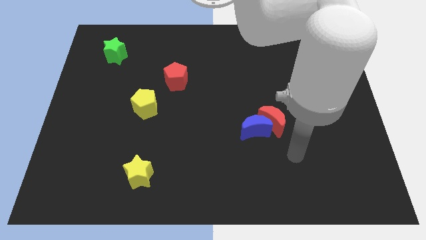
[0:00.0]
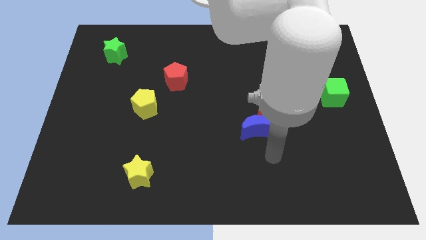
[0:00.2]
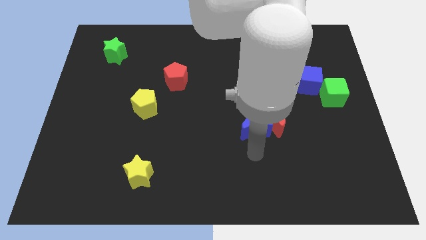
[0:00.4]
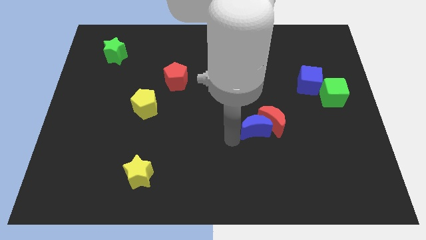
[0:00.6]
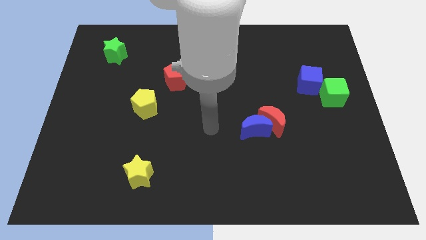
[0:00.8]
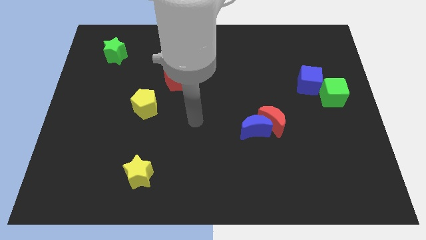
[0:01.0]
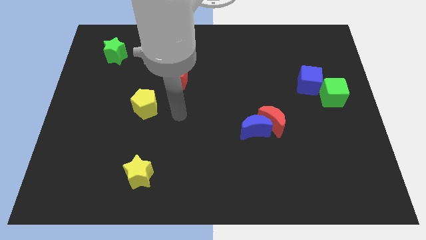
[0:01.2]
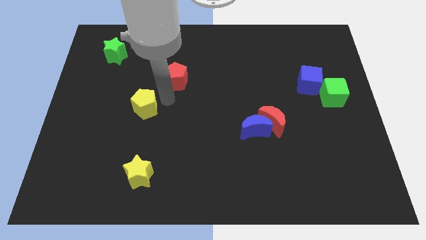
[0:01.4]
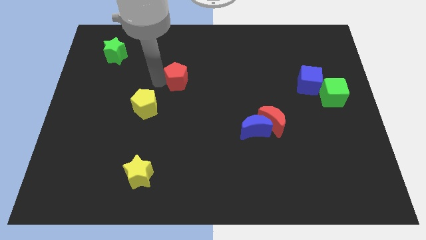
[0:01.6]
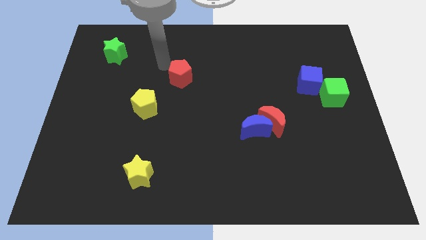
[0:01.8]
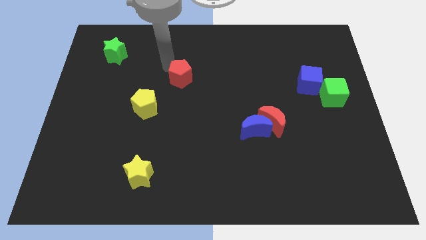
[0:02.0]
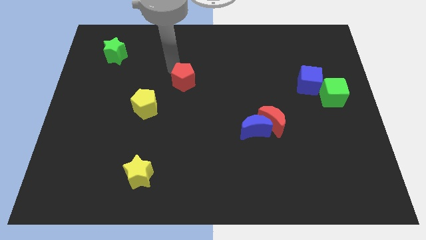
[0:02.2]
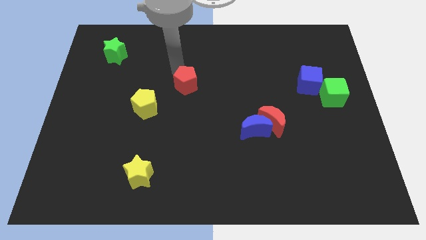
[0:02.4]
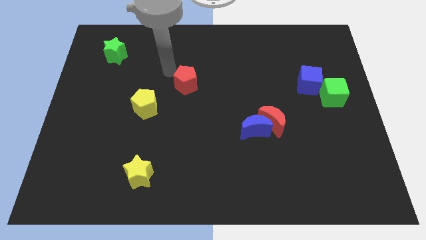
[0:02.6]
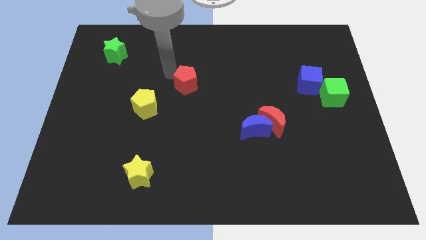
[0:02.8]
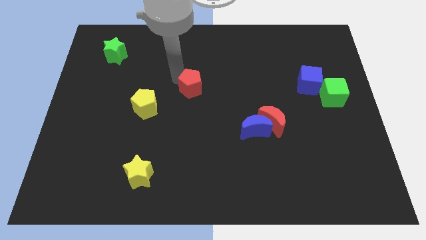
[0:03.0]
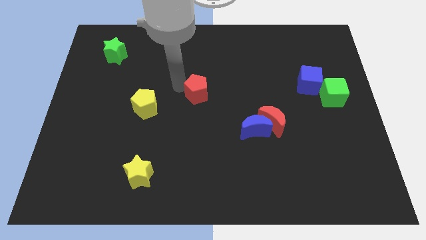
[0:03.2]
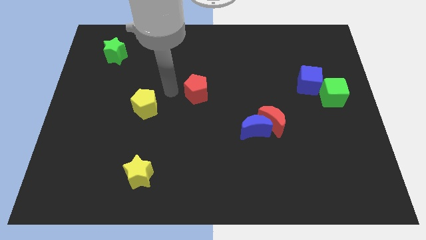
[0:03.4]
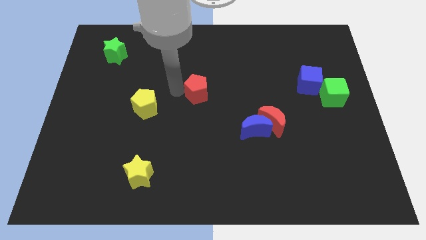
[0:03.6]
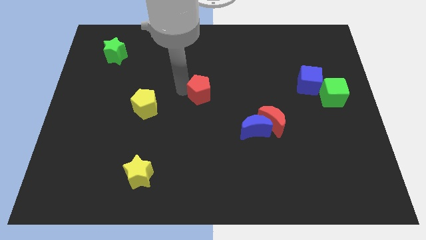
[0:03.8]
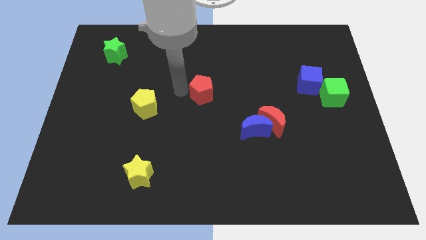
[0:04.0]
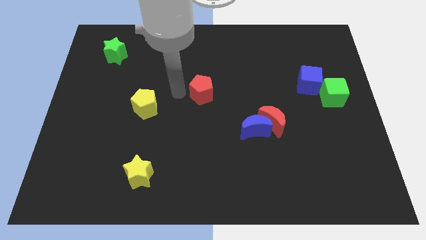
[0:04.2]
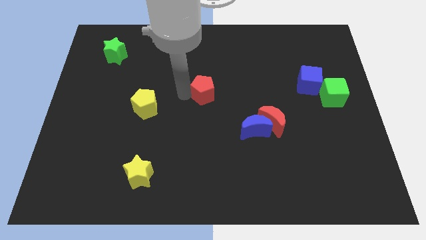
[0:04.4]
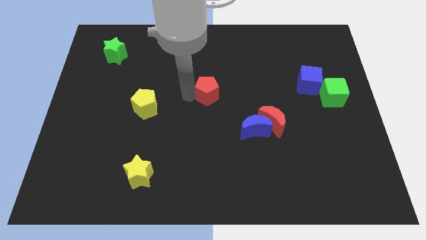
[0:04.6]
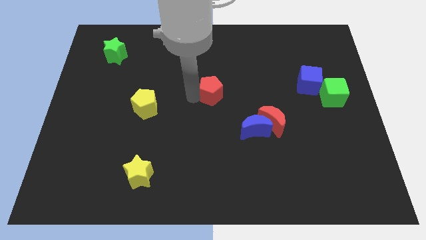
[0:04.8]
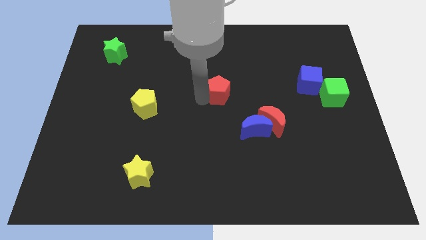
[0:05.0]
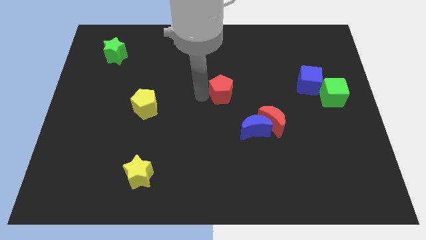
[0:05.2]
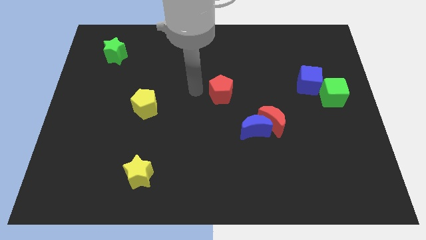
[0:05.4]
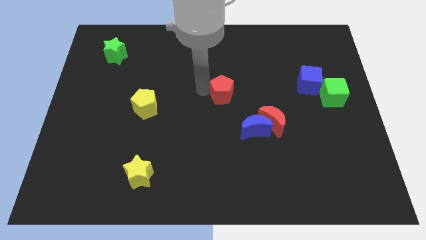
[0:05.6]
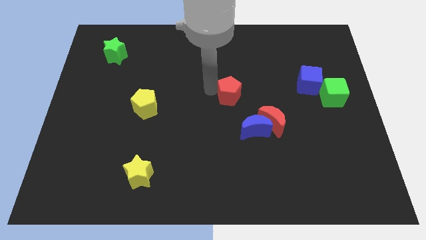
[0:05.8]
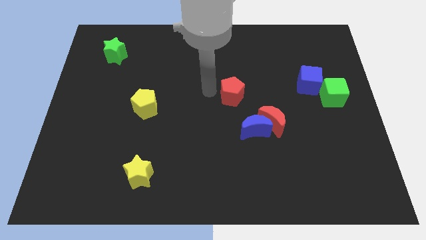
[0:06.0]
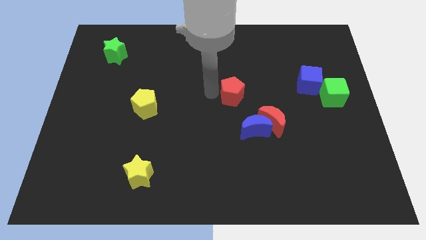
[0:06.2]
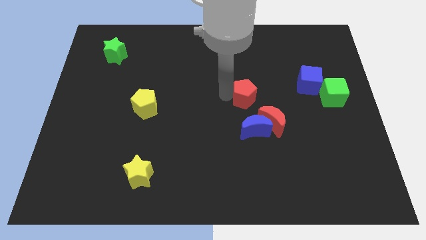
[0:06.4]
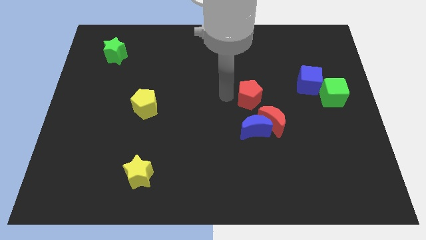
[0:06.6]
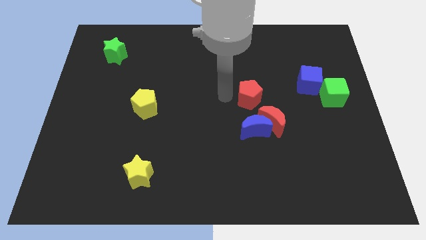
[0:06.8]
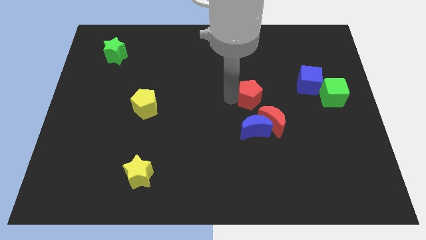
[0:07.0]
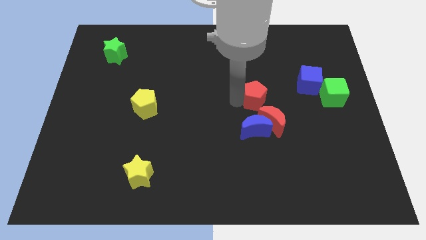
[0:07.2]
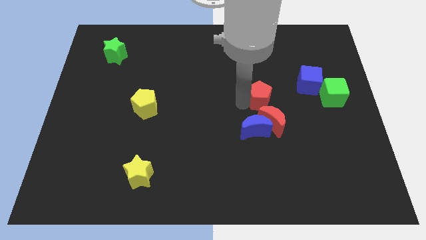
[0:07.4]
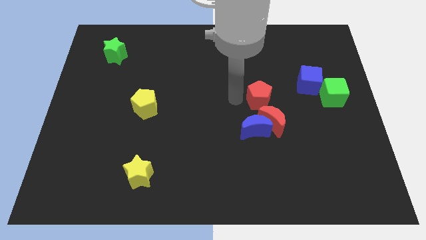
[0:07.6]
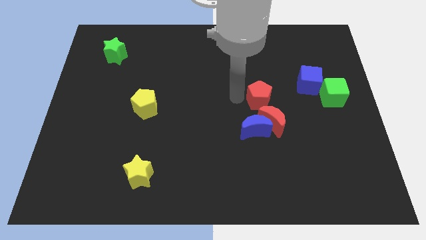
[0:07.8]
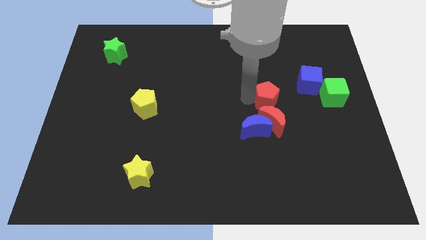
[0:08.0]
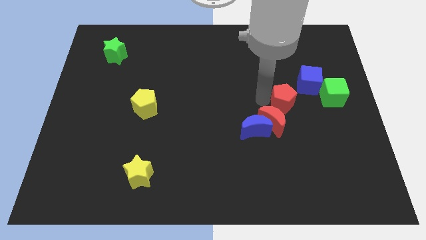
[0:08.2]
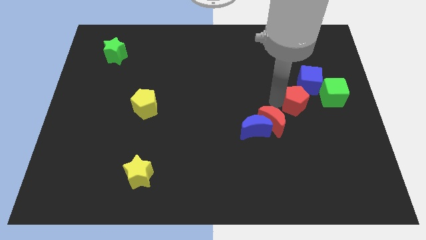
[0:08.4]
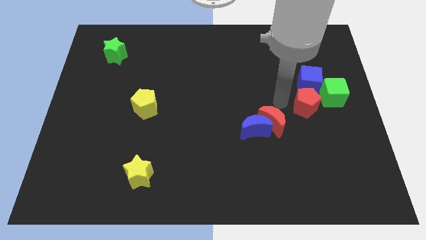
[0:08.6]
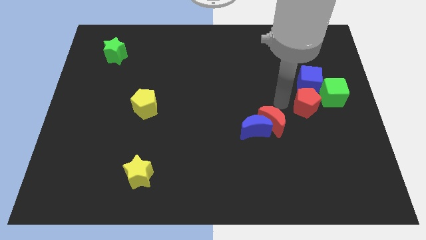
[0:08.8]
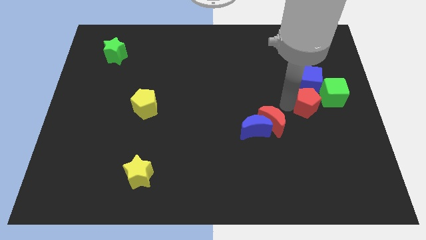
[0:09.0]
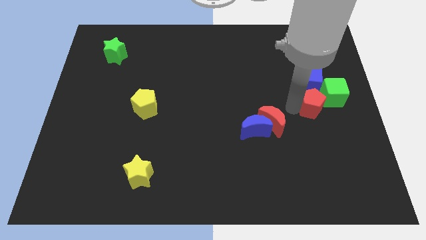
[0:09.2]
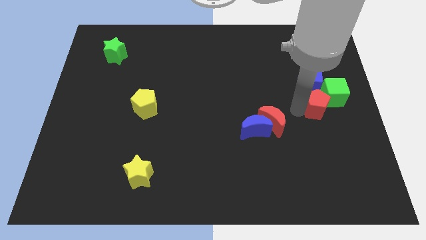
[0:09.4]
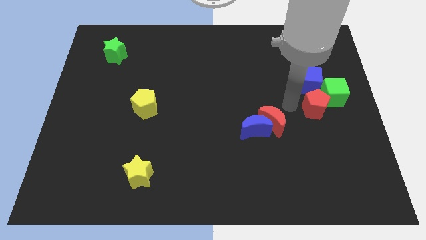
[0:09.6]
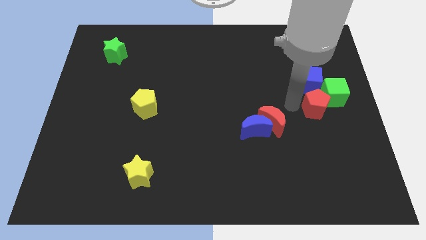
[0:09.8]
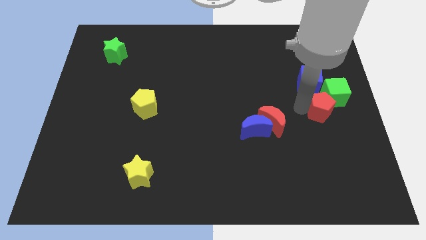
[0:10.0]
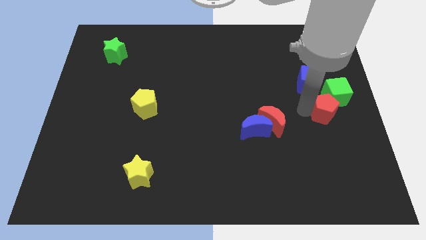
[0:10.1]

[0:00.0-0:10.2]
push the red pentagon to the right side of the board

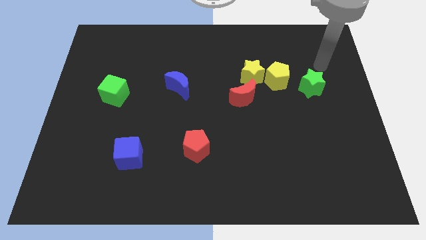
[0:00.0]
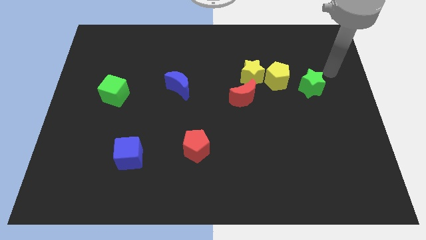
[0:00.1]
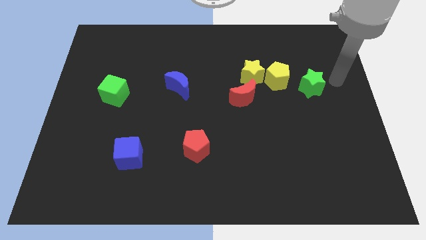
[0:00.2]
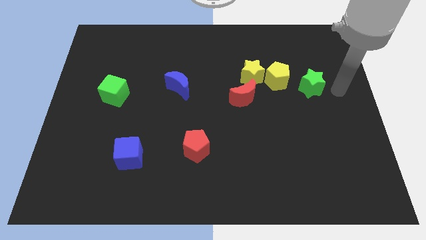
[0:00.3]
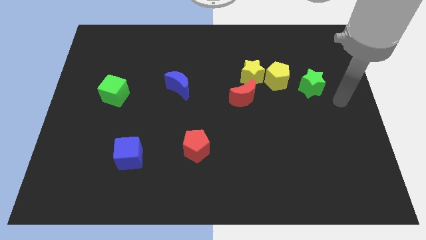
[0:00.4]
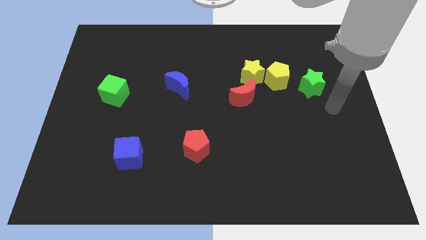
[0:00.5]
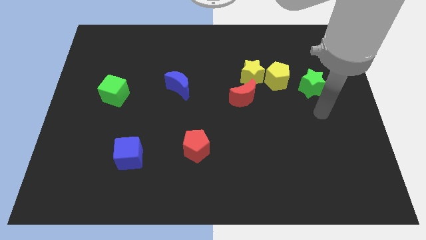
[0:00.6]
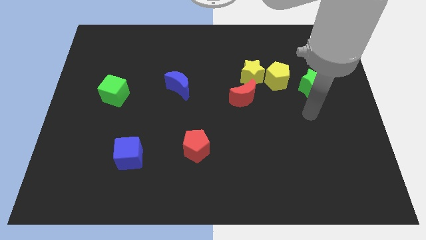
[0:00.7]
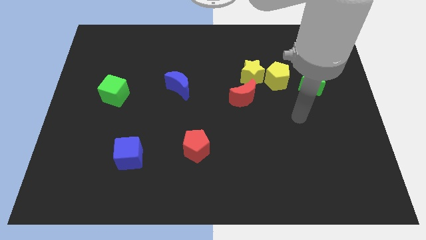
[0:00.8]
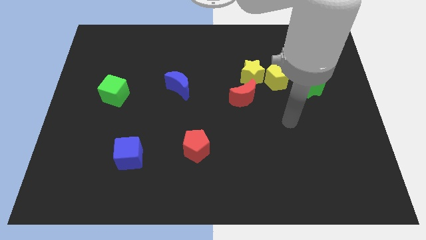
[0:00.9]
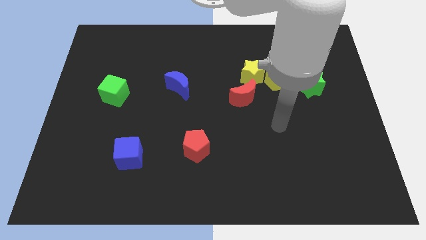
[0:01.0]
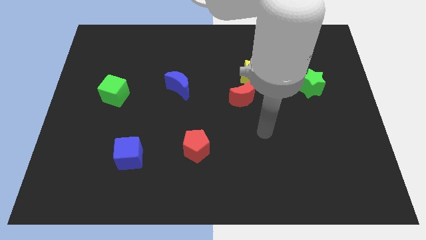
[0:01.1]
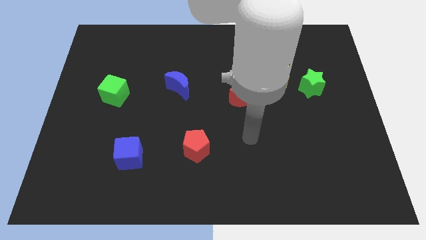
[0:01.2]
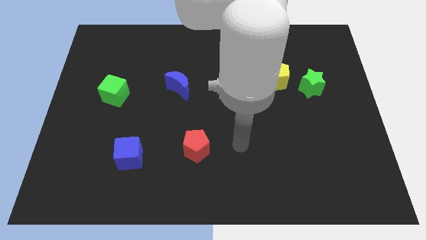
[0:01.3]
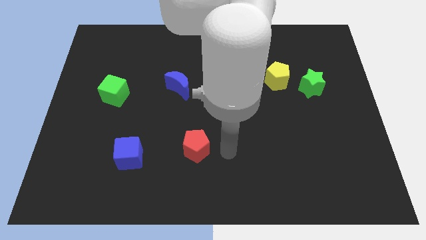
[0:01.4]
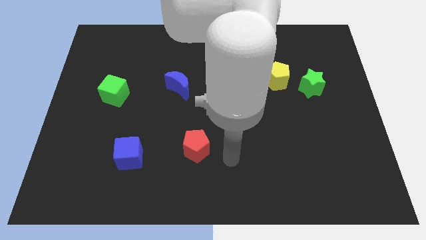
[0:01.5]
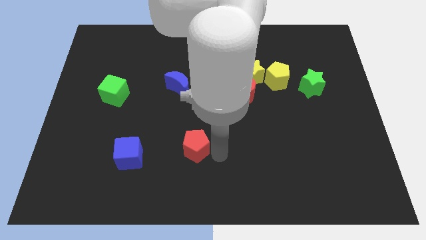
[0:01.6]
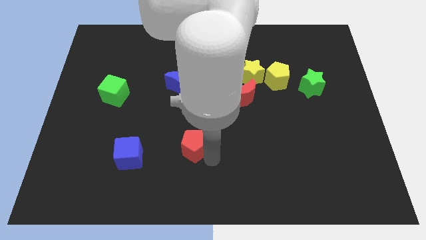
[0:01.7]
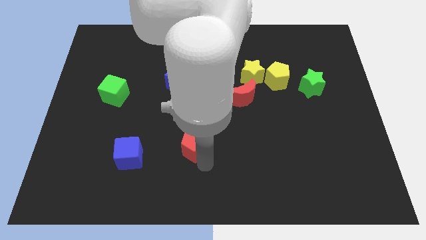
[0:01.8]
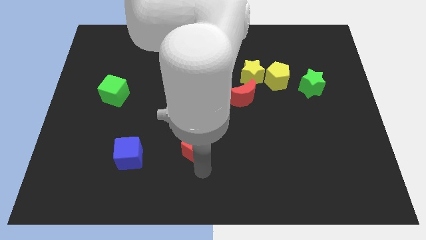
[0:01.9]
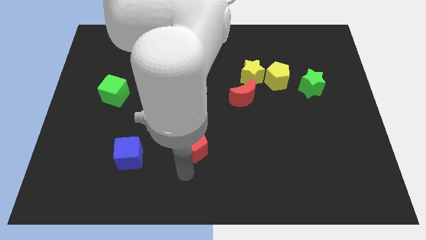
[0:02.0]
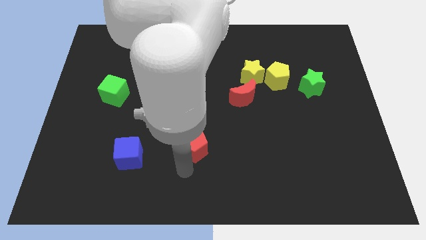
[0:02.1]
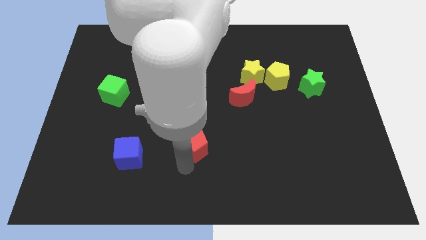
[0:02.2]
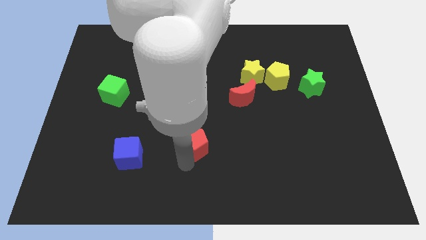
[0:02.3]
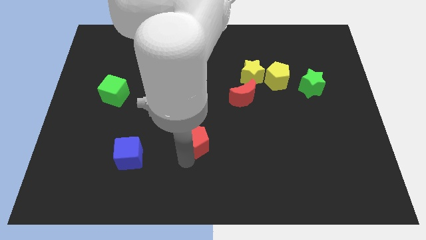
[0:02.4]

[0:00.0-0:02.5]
push the red pentagon to the center
